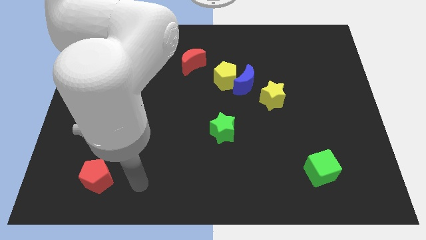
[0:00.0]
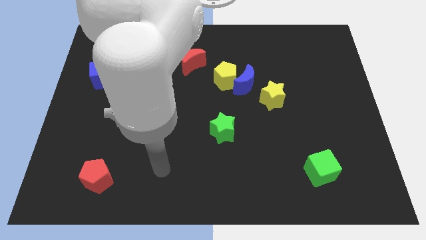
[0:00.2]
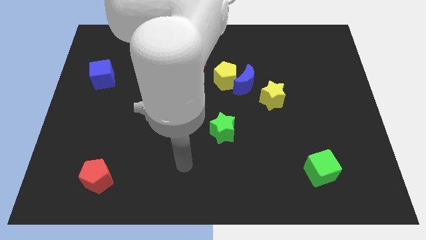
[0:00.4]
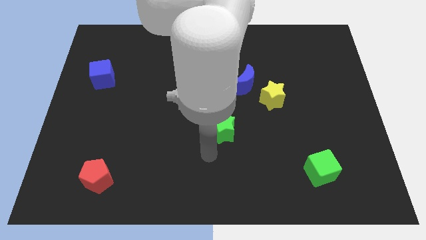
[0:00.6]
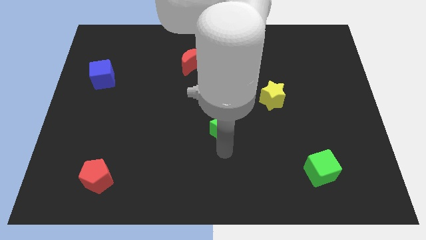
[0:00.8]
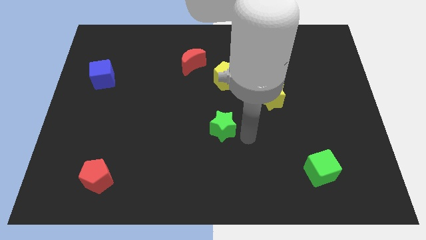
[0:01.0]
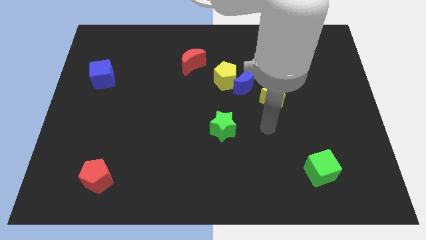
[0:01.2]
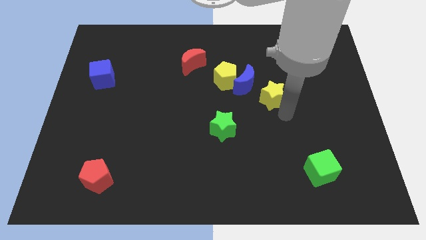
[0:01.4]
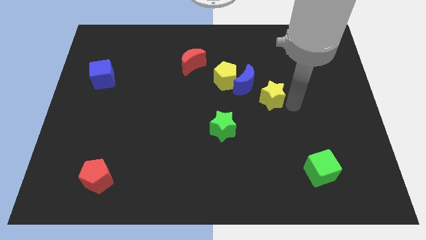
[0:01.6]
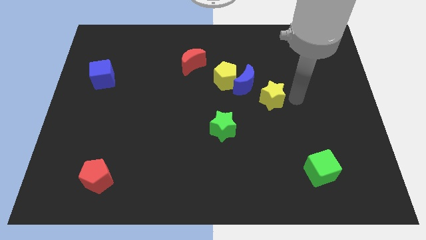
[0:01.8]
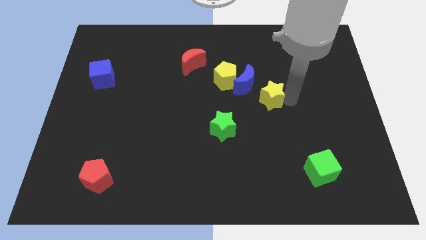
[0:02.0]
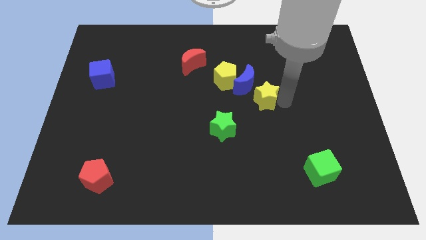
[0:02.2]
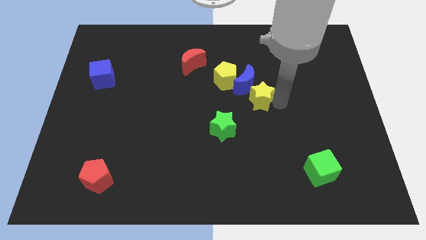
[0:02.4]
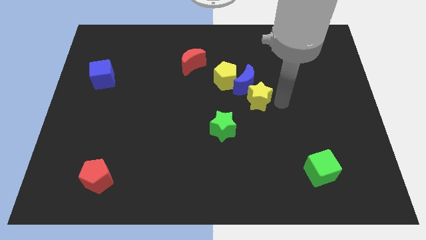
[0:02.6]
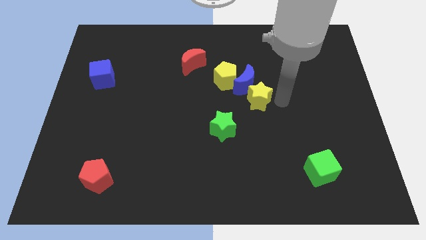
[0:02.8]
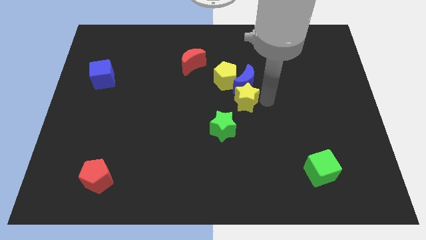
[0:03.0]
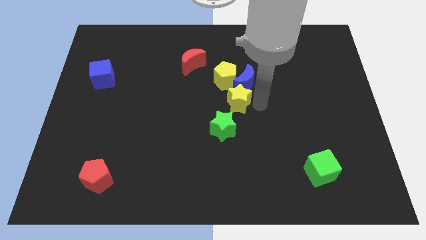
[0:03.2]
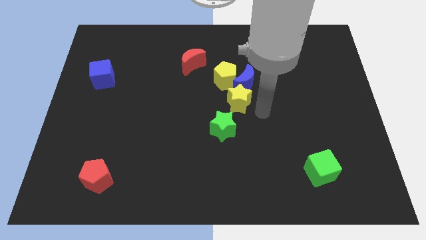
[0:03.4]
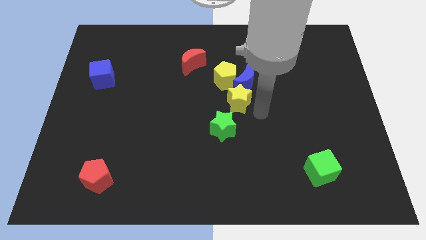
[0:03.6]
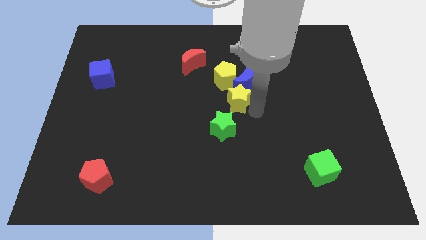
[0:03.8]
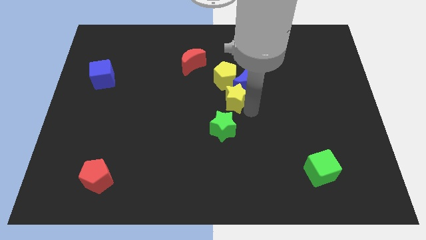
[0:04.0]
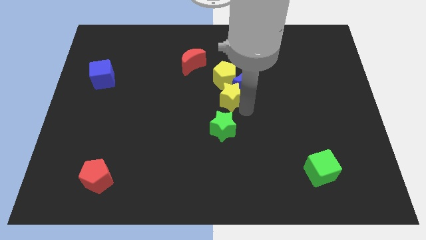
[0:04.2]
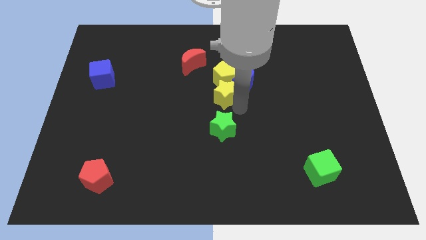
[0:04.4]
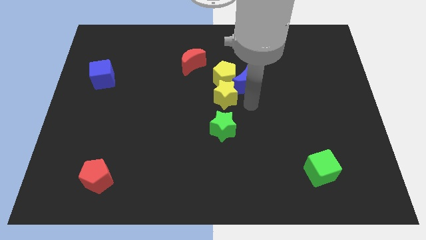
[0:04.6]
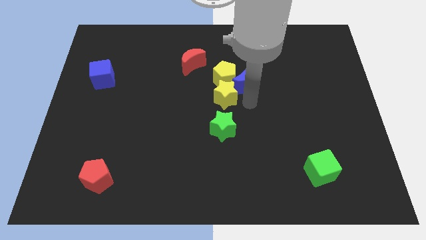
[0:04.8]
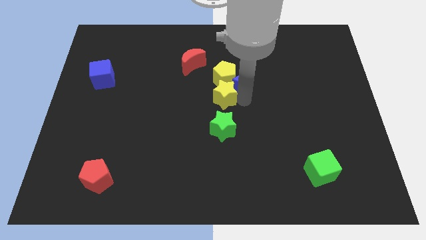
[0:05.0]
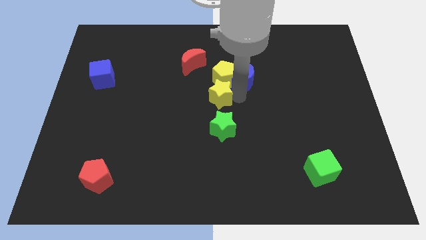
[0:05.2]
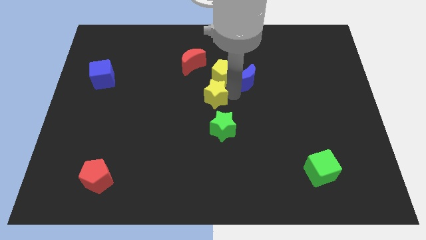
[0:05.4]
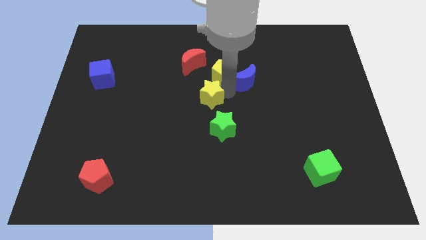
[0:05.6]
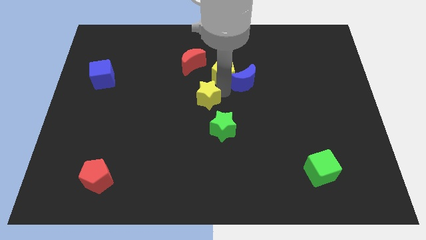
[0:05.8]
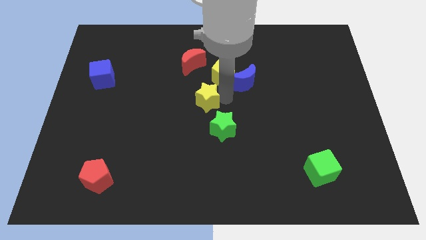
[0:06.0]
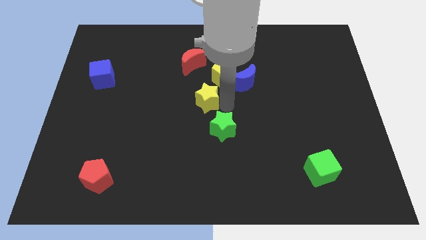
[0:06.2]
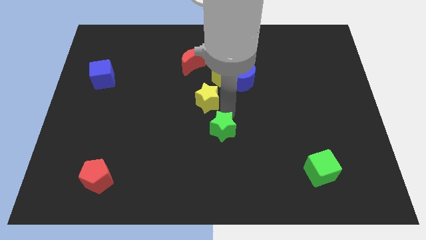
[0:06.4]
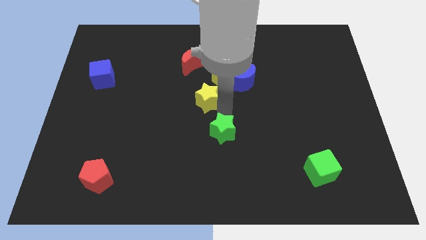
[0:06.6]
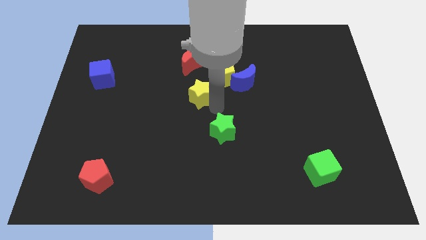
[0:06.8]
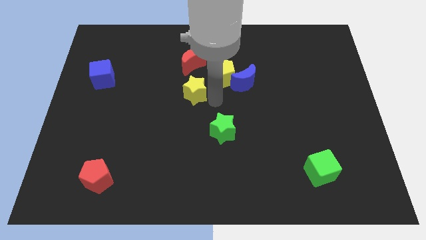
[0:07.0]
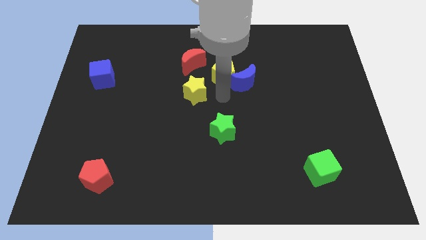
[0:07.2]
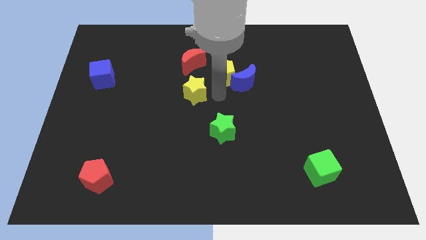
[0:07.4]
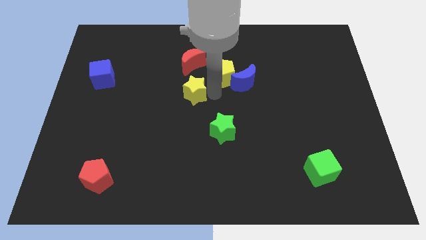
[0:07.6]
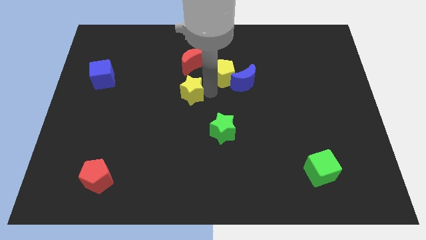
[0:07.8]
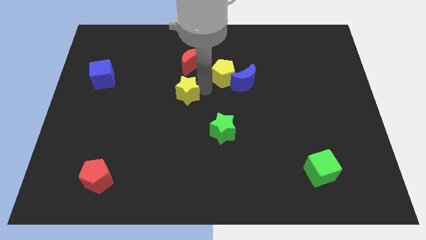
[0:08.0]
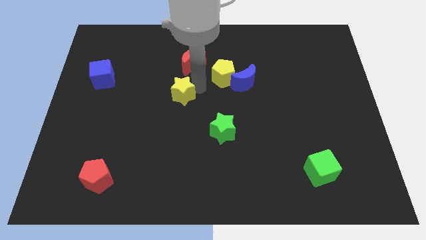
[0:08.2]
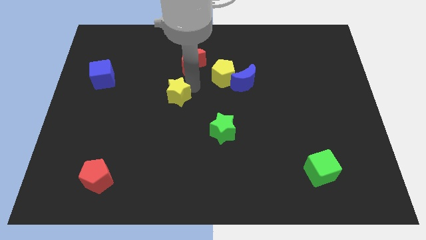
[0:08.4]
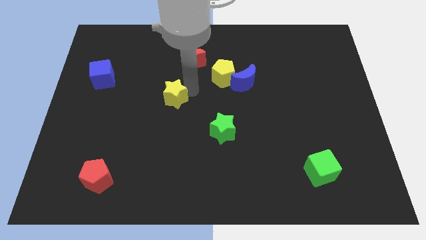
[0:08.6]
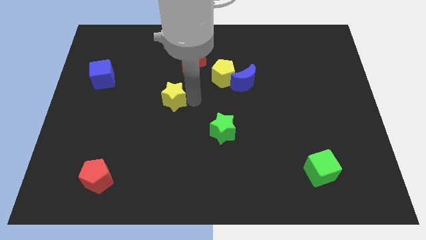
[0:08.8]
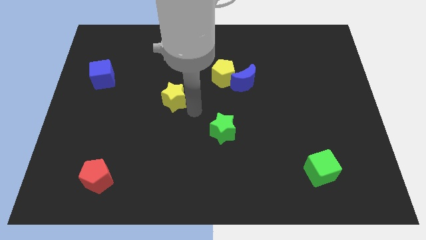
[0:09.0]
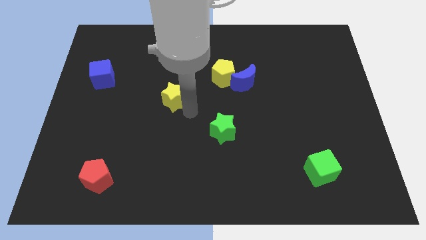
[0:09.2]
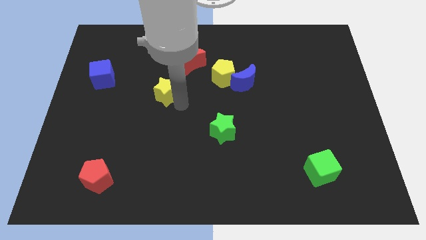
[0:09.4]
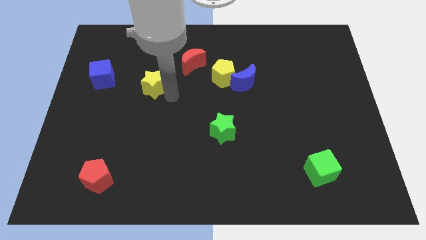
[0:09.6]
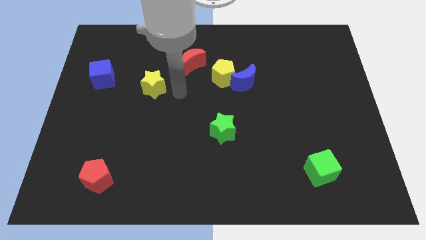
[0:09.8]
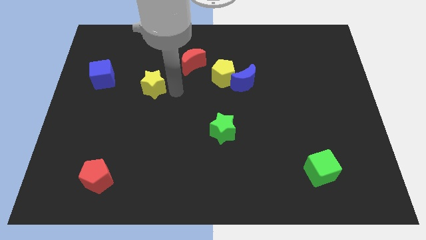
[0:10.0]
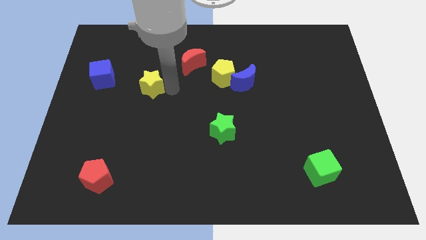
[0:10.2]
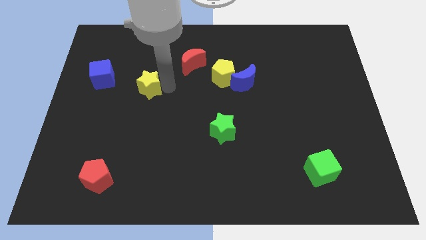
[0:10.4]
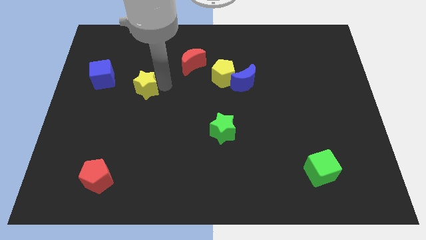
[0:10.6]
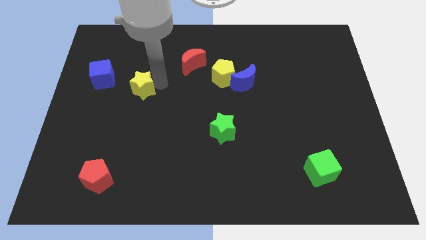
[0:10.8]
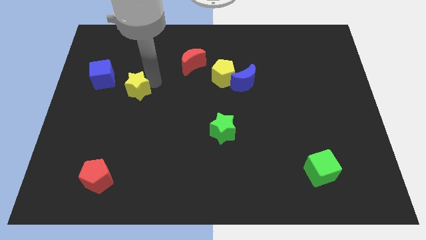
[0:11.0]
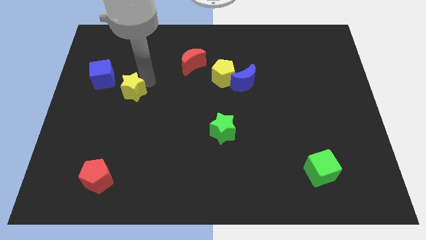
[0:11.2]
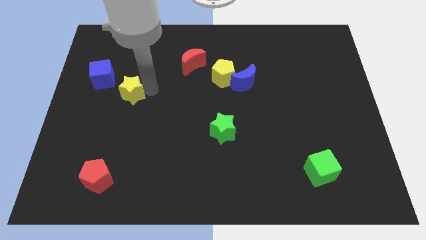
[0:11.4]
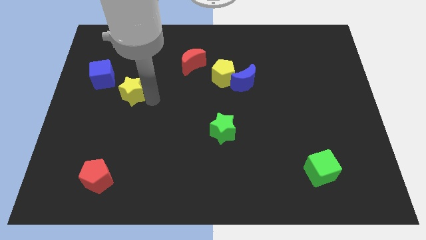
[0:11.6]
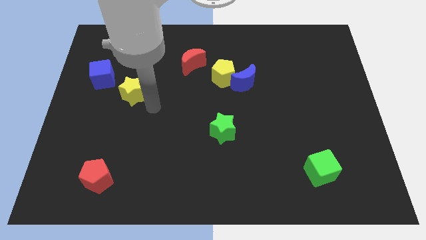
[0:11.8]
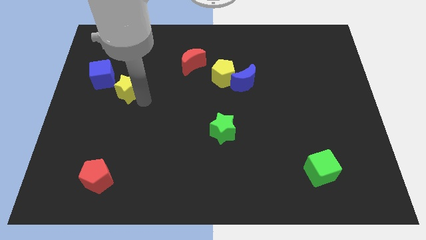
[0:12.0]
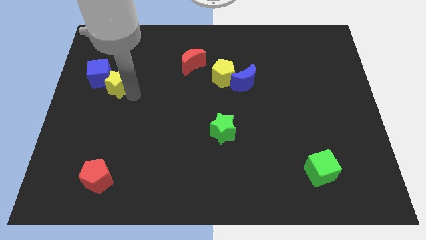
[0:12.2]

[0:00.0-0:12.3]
put the yellow star next to the blue cube
